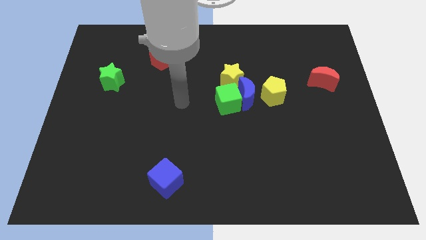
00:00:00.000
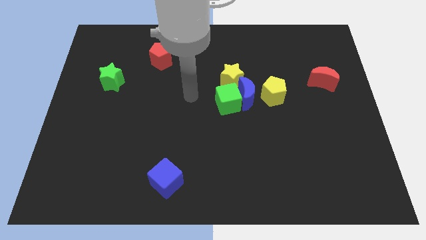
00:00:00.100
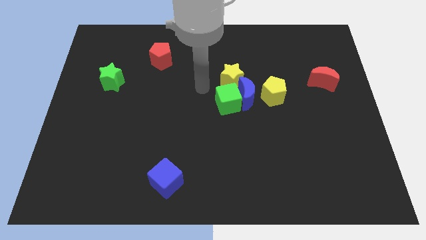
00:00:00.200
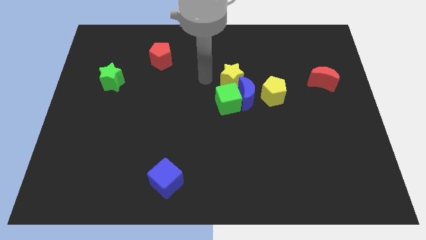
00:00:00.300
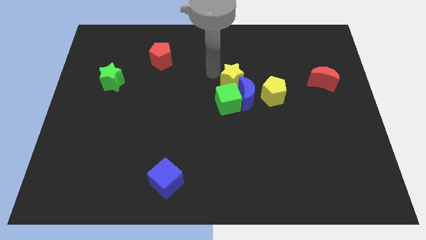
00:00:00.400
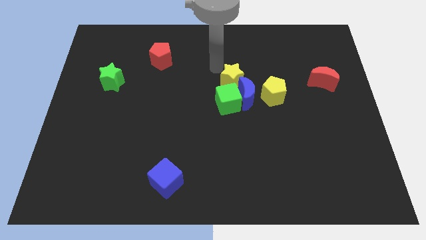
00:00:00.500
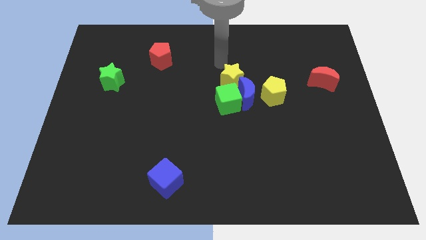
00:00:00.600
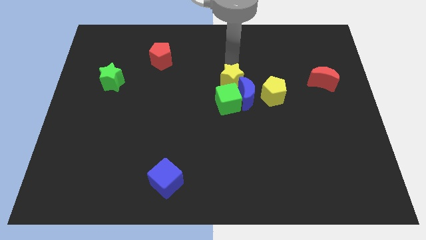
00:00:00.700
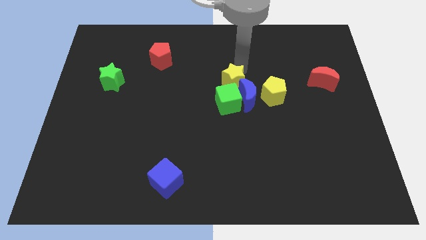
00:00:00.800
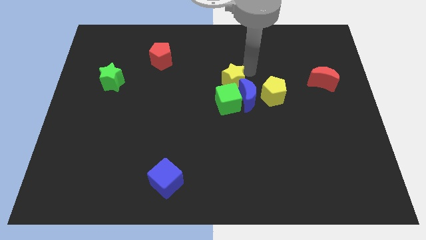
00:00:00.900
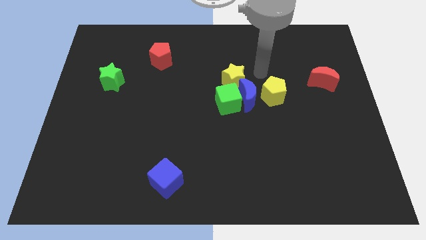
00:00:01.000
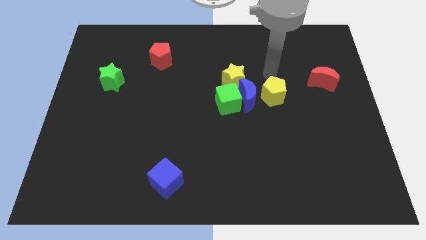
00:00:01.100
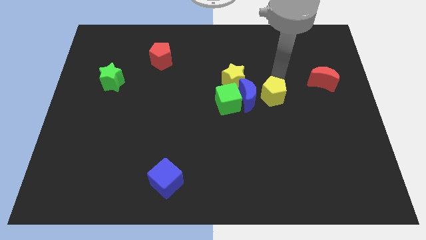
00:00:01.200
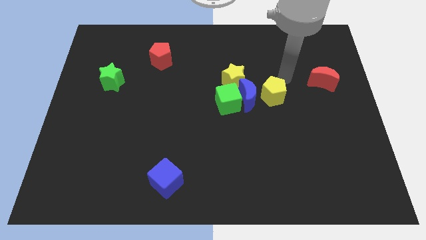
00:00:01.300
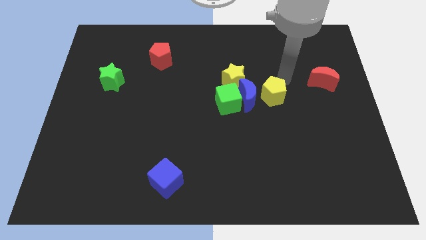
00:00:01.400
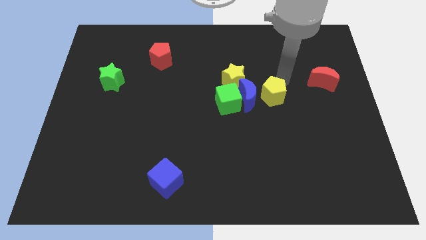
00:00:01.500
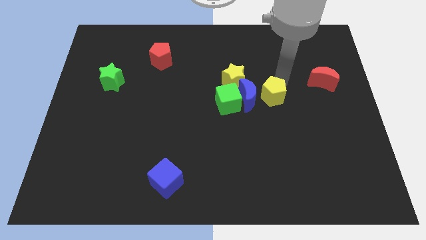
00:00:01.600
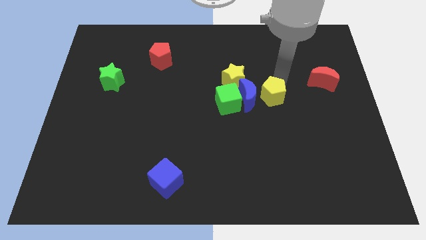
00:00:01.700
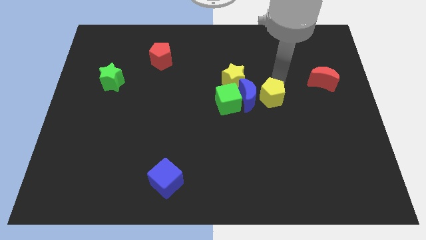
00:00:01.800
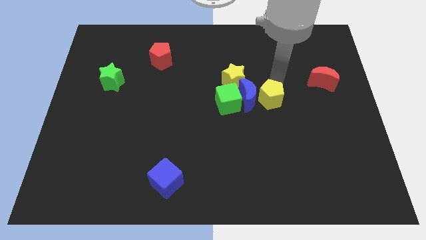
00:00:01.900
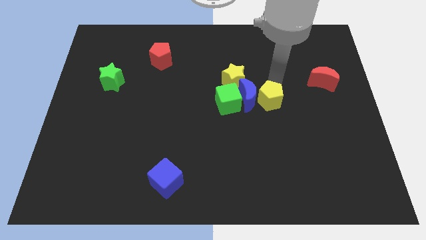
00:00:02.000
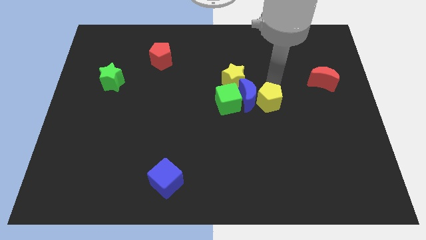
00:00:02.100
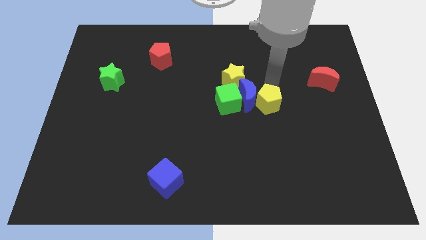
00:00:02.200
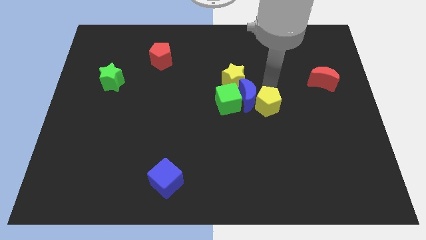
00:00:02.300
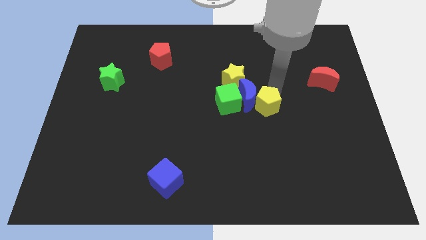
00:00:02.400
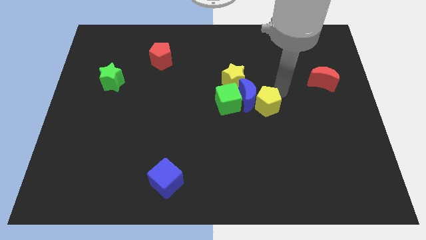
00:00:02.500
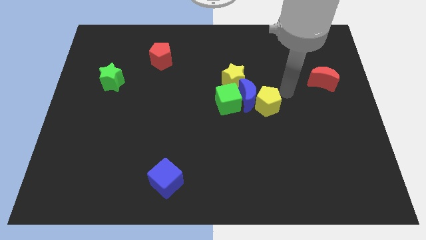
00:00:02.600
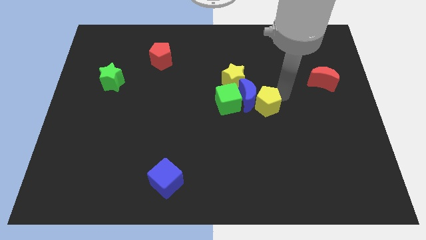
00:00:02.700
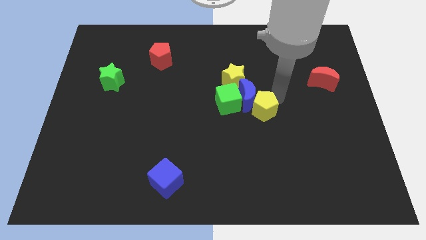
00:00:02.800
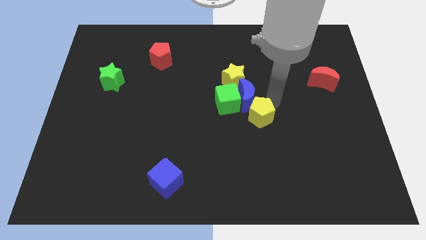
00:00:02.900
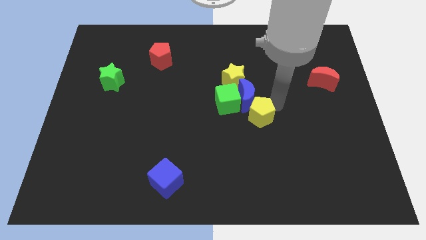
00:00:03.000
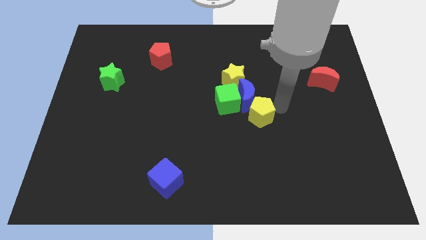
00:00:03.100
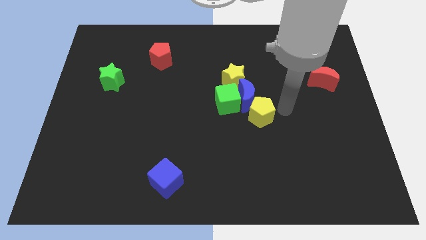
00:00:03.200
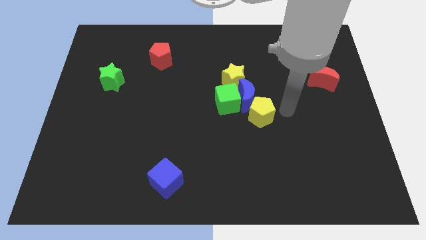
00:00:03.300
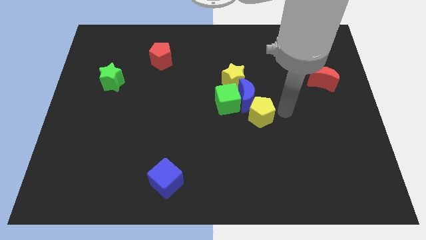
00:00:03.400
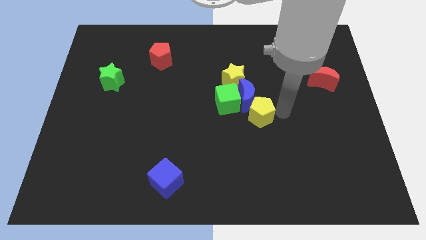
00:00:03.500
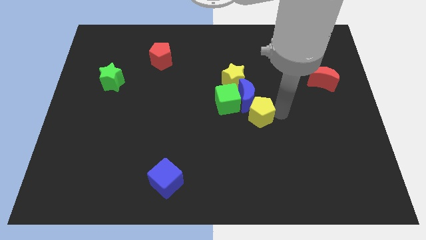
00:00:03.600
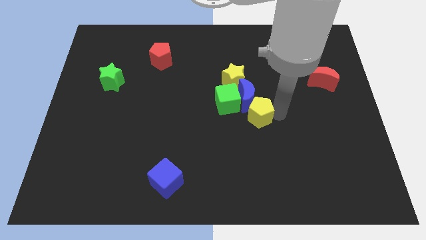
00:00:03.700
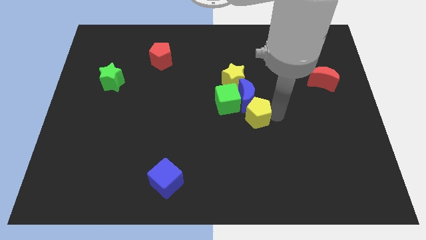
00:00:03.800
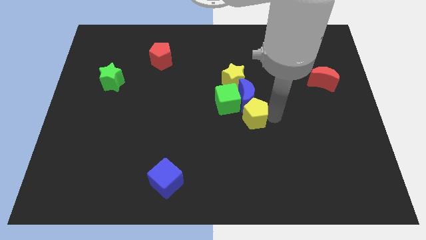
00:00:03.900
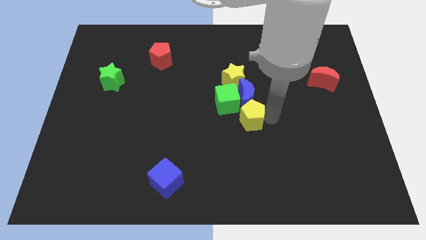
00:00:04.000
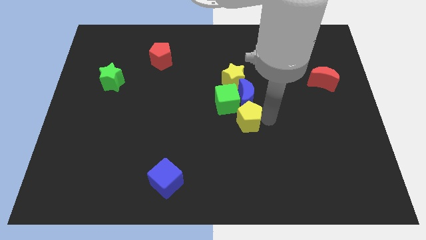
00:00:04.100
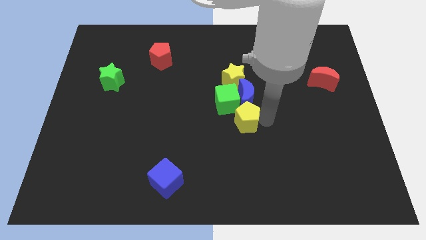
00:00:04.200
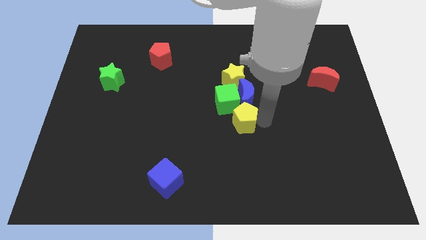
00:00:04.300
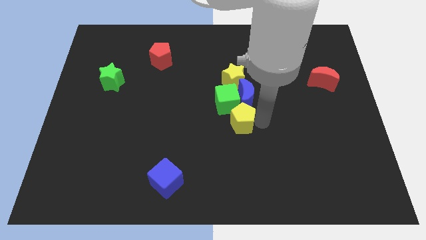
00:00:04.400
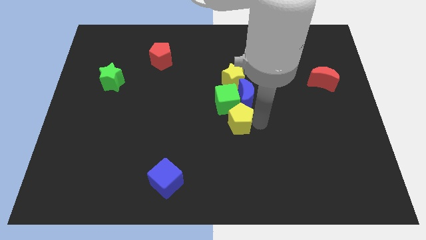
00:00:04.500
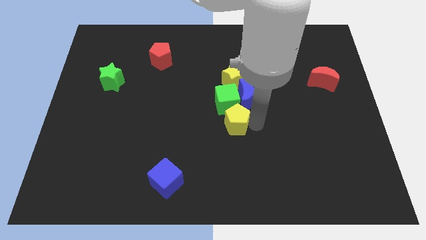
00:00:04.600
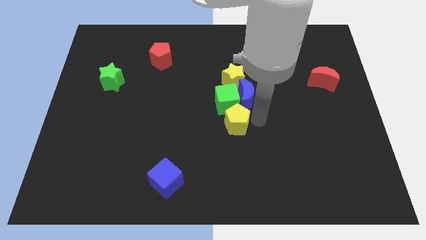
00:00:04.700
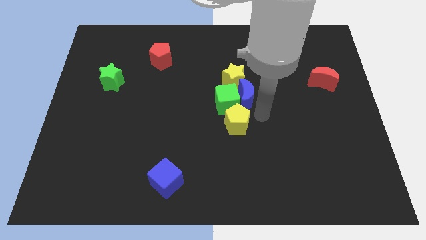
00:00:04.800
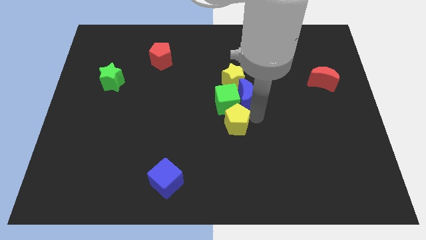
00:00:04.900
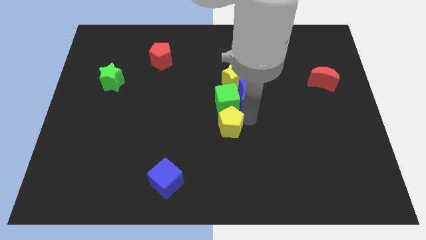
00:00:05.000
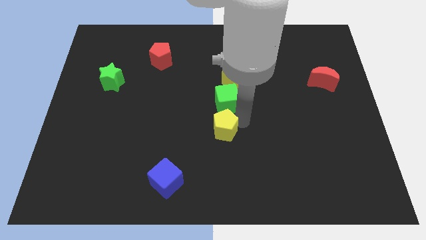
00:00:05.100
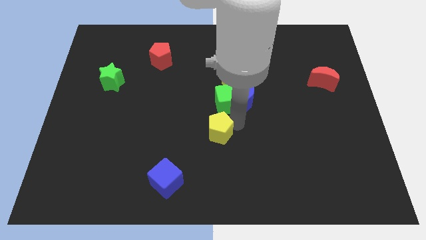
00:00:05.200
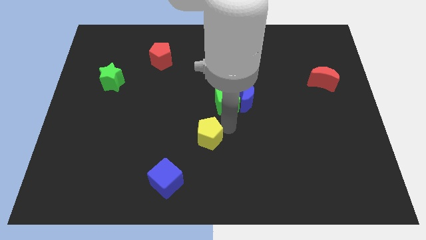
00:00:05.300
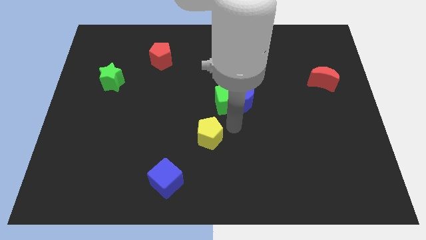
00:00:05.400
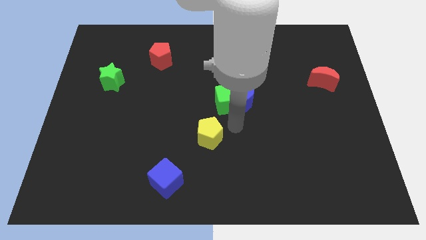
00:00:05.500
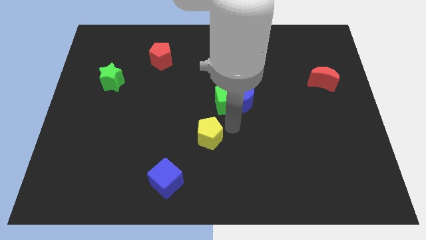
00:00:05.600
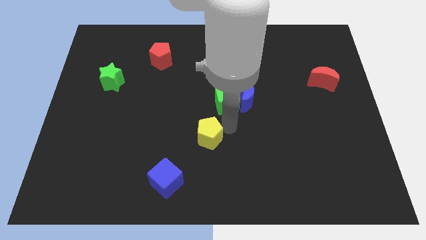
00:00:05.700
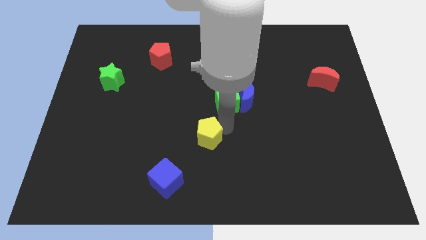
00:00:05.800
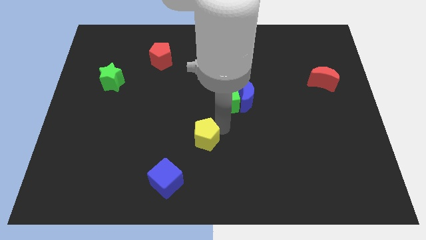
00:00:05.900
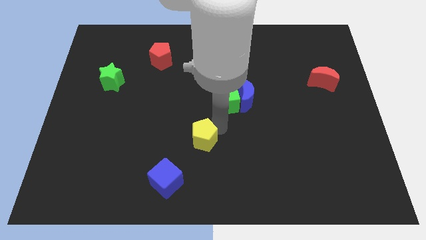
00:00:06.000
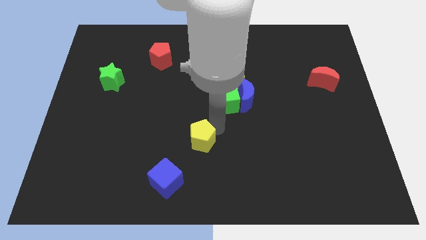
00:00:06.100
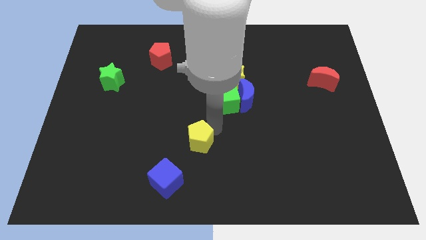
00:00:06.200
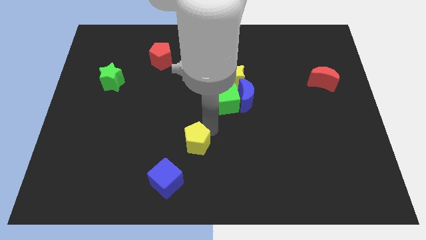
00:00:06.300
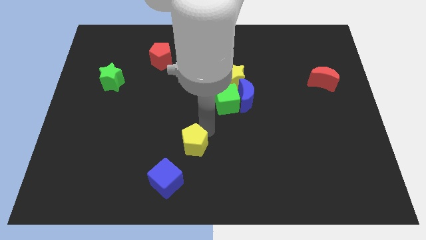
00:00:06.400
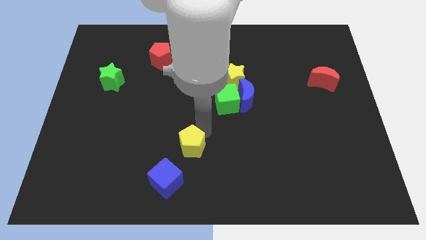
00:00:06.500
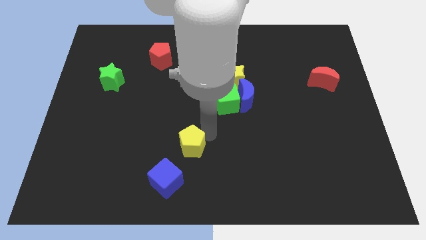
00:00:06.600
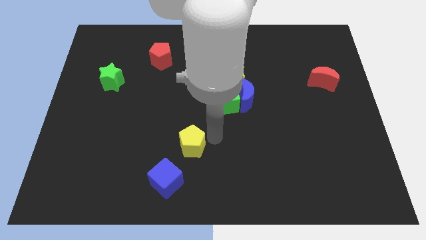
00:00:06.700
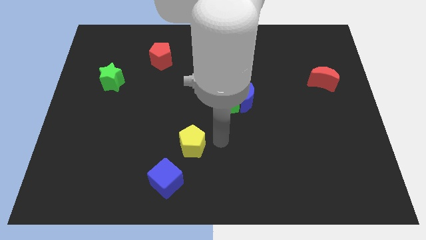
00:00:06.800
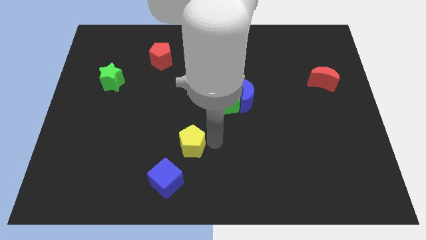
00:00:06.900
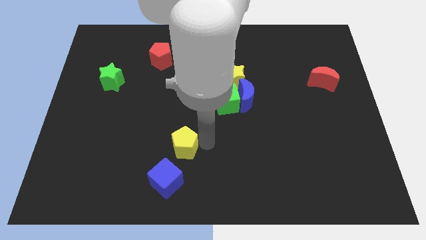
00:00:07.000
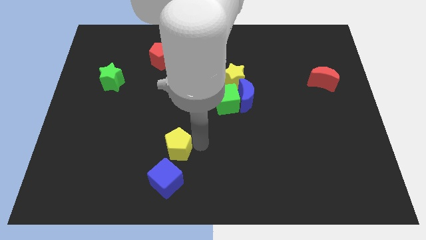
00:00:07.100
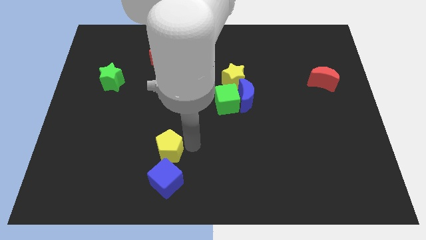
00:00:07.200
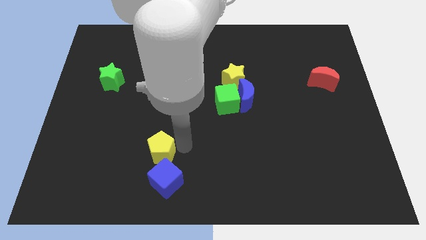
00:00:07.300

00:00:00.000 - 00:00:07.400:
put the yellow pentagon to the top left side of the blue cube
